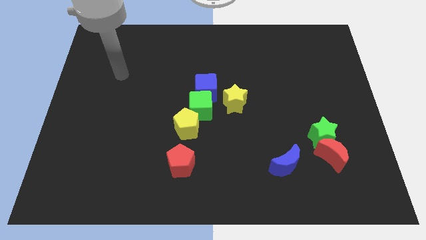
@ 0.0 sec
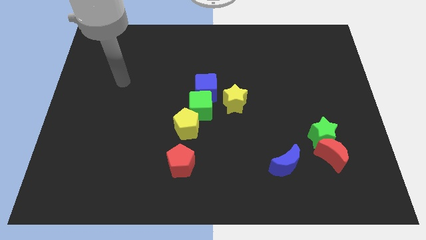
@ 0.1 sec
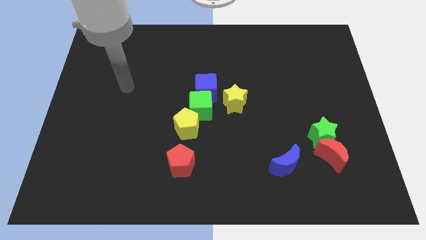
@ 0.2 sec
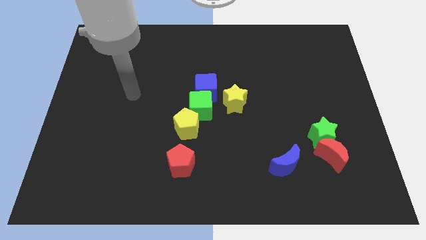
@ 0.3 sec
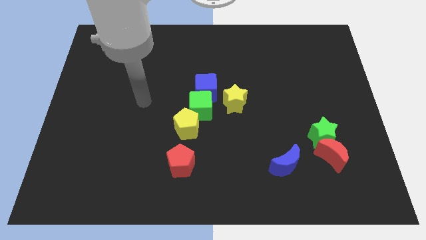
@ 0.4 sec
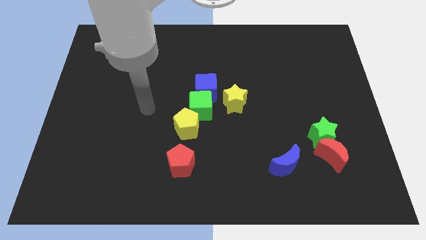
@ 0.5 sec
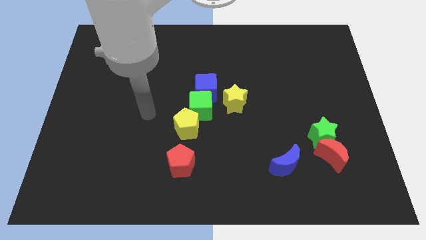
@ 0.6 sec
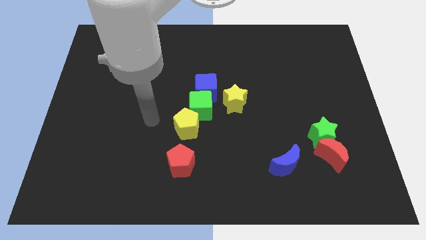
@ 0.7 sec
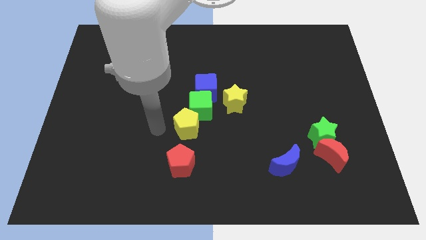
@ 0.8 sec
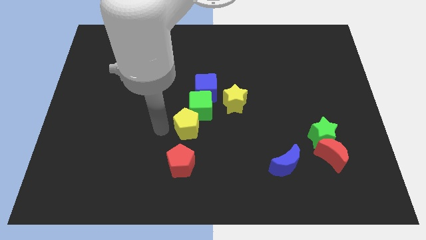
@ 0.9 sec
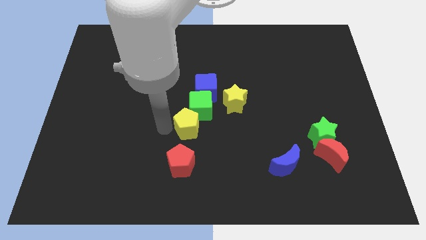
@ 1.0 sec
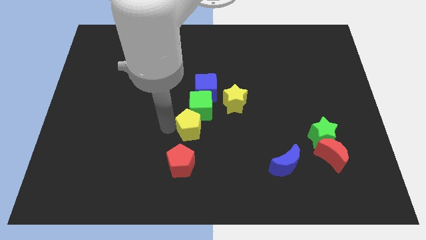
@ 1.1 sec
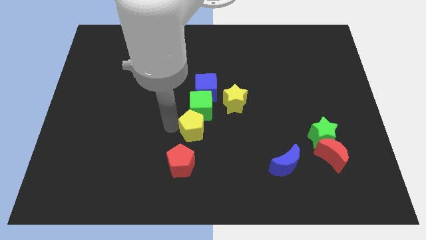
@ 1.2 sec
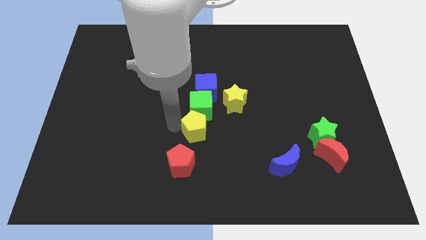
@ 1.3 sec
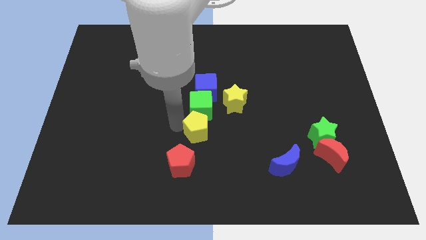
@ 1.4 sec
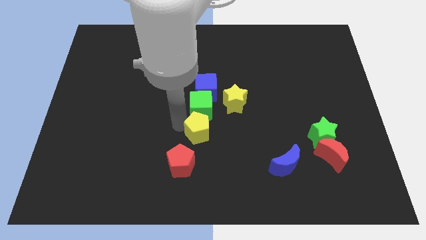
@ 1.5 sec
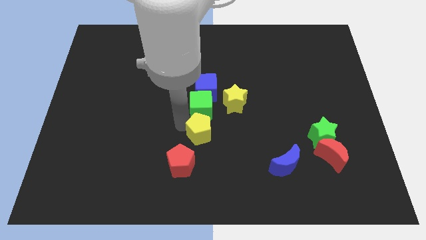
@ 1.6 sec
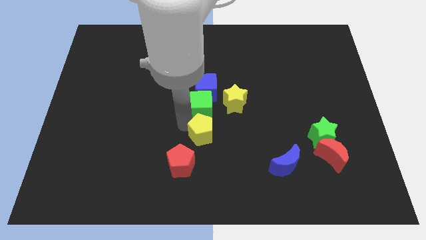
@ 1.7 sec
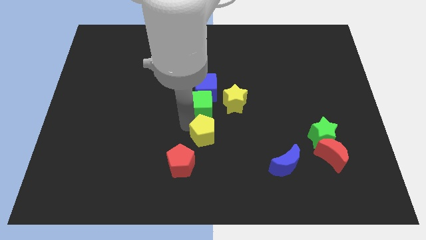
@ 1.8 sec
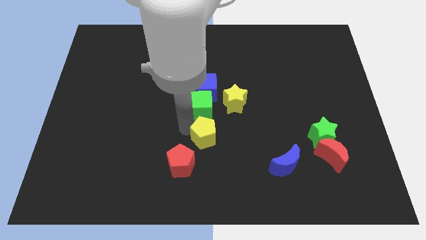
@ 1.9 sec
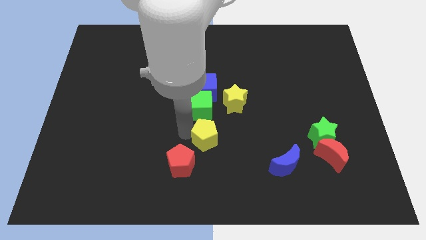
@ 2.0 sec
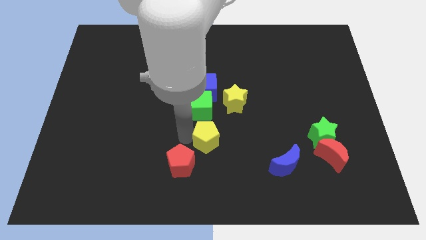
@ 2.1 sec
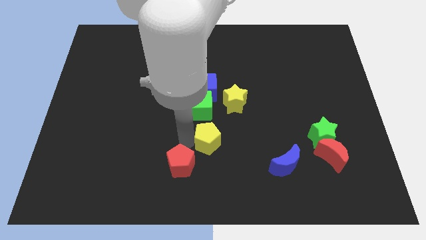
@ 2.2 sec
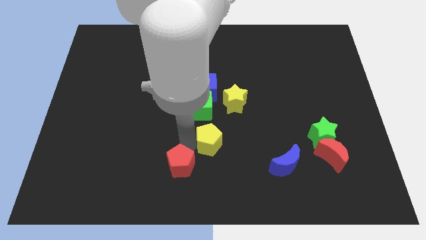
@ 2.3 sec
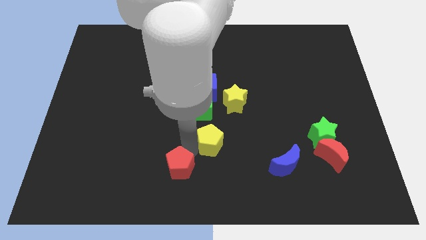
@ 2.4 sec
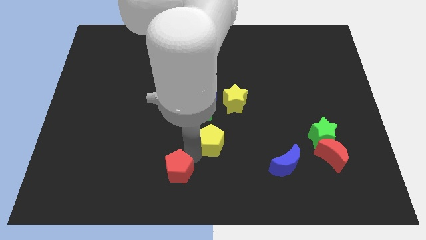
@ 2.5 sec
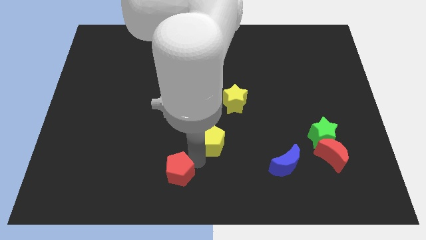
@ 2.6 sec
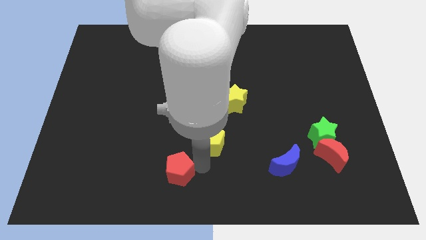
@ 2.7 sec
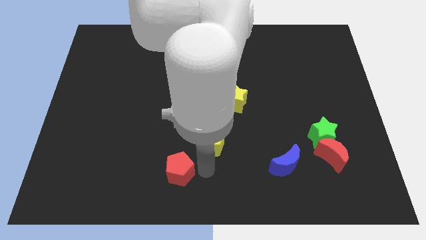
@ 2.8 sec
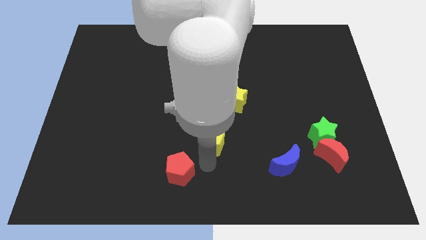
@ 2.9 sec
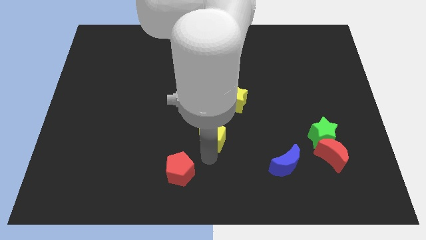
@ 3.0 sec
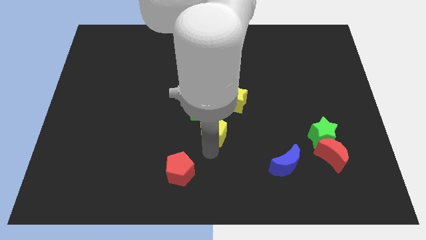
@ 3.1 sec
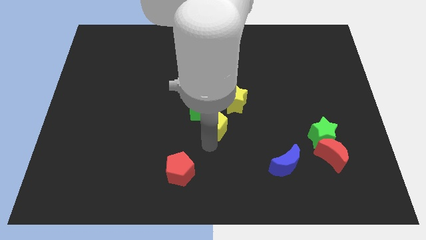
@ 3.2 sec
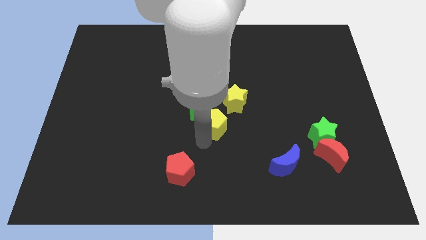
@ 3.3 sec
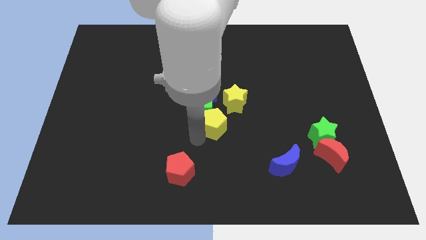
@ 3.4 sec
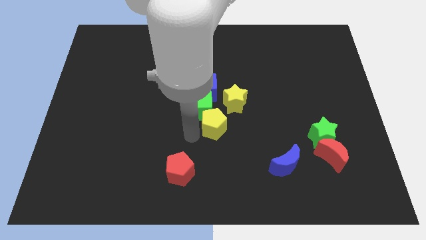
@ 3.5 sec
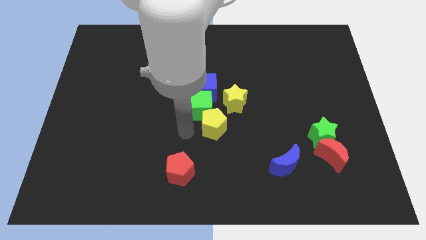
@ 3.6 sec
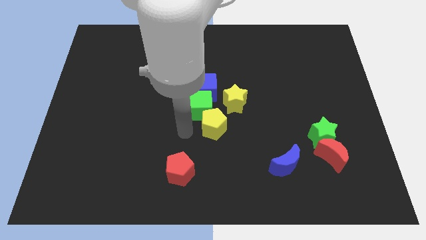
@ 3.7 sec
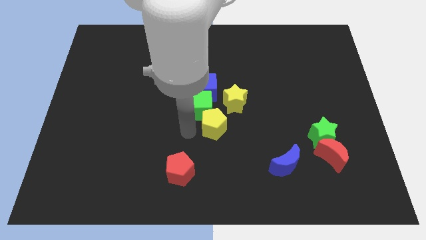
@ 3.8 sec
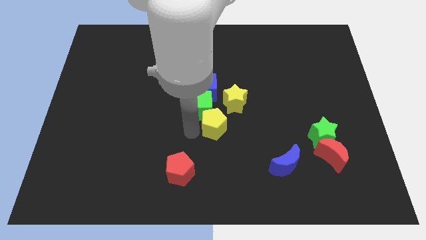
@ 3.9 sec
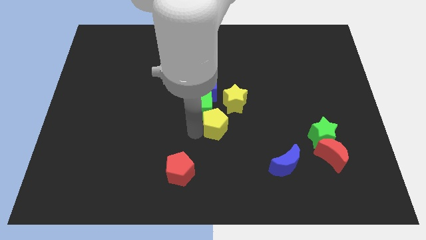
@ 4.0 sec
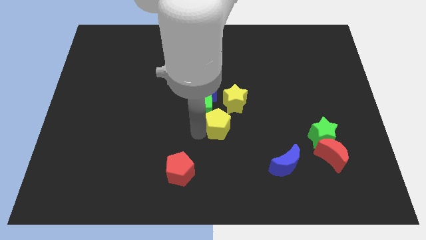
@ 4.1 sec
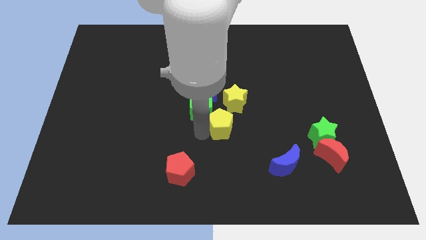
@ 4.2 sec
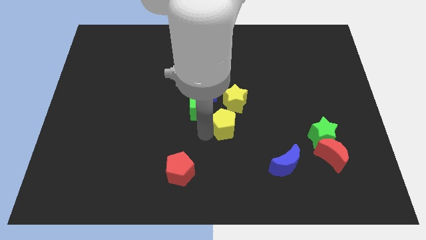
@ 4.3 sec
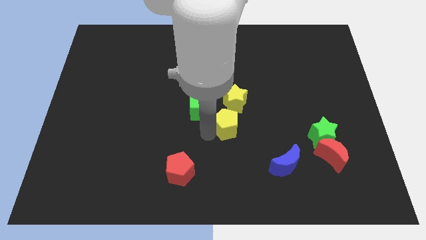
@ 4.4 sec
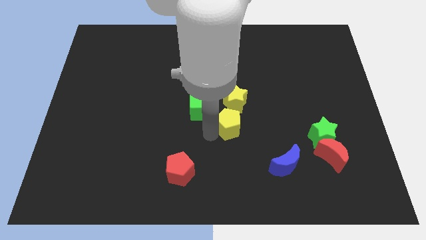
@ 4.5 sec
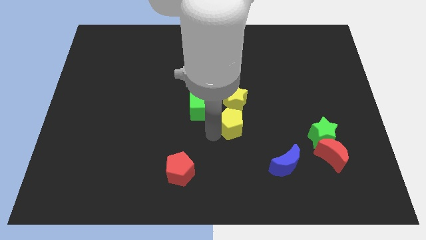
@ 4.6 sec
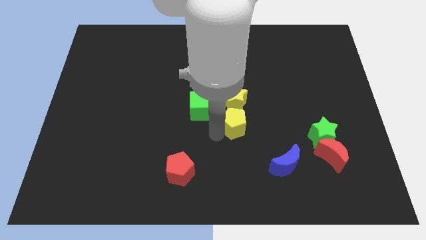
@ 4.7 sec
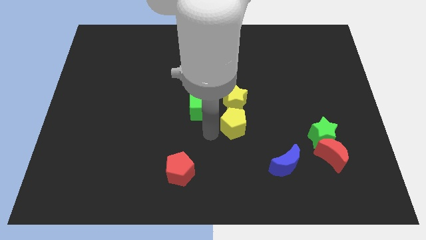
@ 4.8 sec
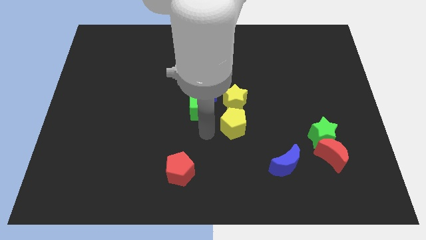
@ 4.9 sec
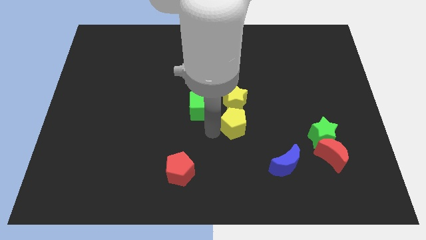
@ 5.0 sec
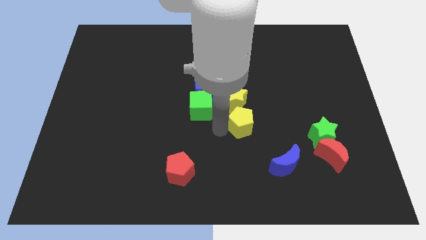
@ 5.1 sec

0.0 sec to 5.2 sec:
slide the yellow pentagon to the bottom right of the yellow star

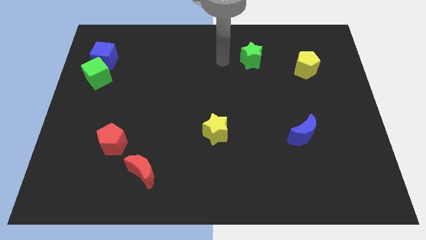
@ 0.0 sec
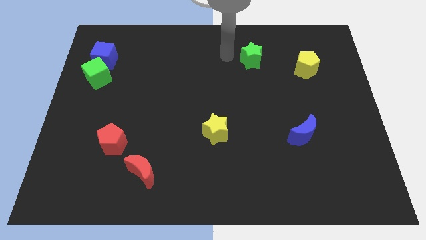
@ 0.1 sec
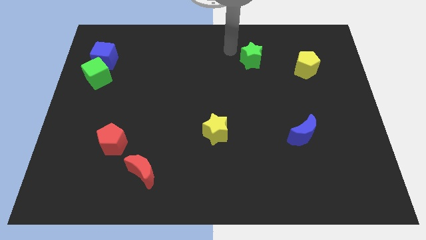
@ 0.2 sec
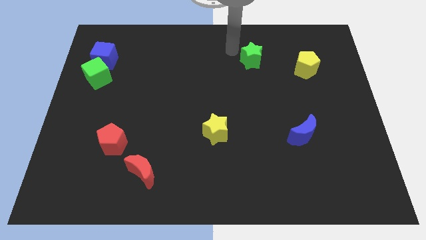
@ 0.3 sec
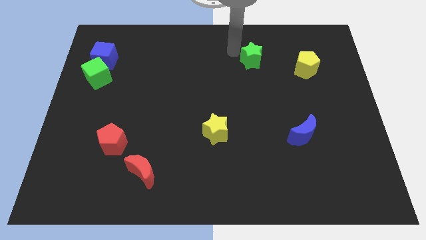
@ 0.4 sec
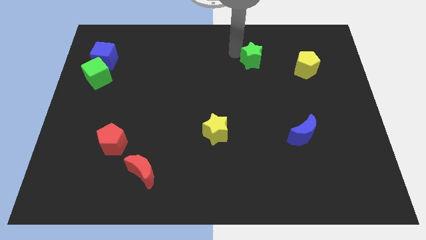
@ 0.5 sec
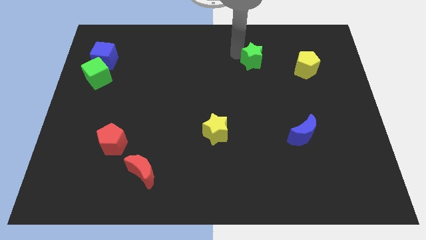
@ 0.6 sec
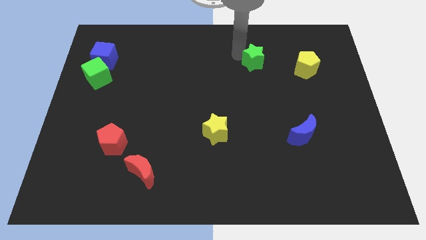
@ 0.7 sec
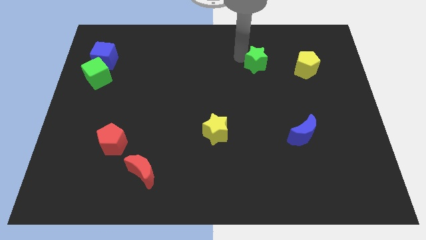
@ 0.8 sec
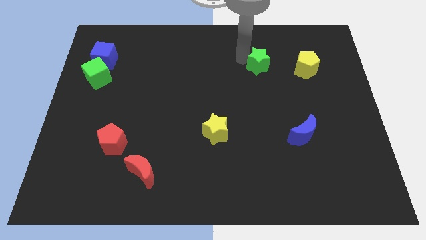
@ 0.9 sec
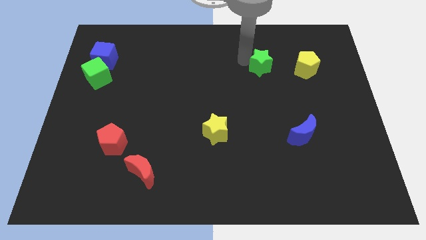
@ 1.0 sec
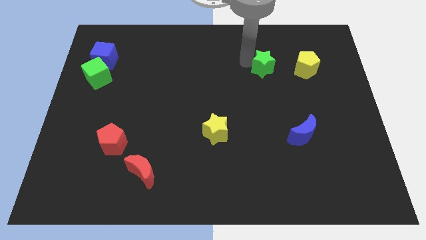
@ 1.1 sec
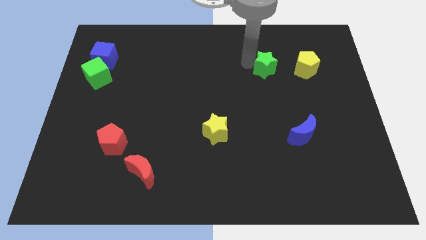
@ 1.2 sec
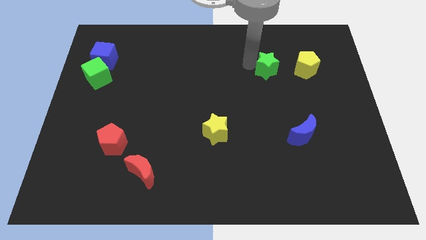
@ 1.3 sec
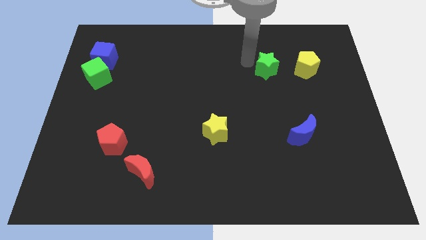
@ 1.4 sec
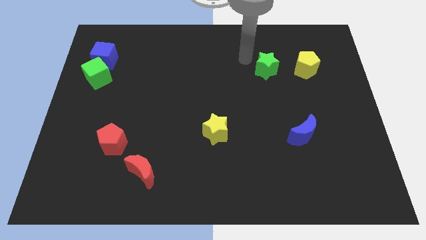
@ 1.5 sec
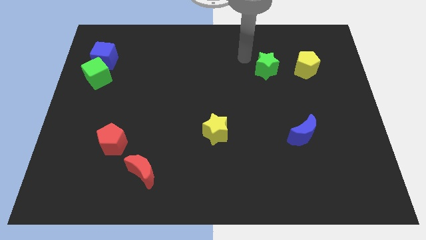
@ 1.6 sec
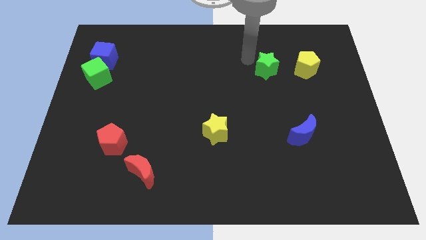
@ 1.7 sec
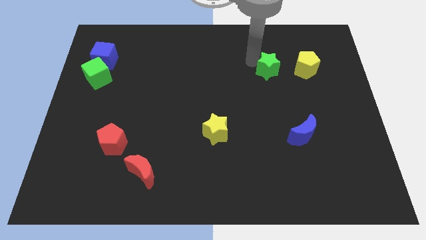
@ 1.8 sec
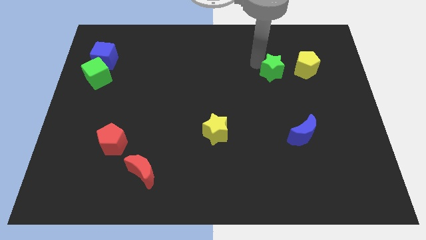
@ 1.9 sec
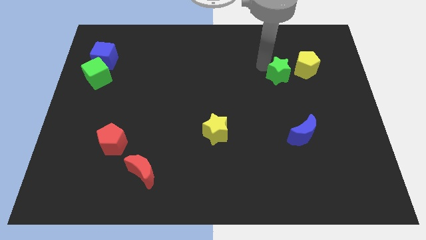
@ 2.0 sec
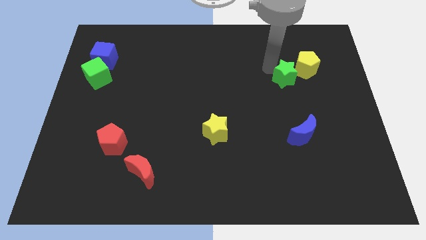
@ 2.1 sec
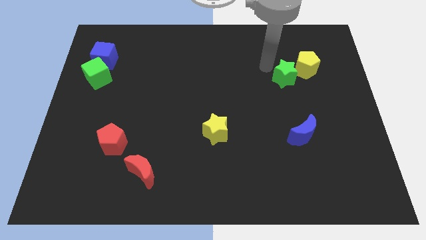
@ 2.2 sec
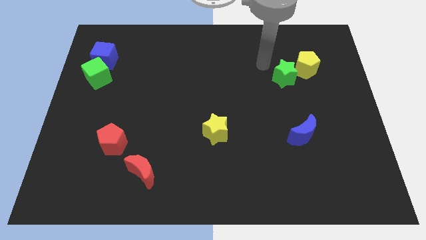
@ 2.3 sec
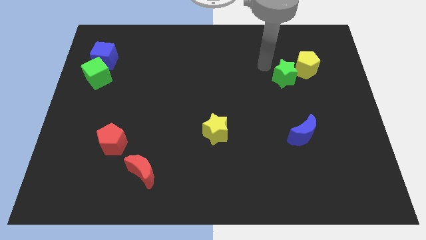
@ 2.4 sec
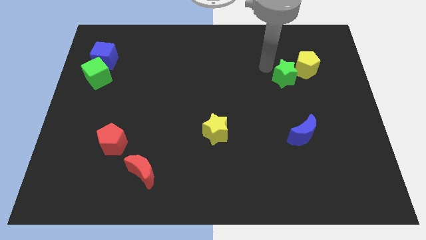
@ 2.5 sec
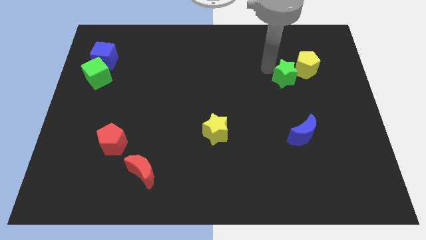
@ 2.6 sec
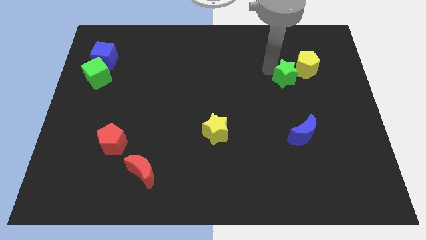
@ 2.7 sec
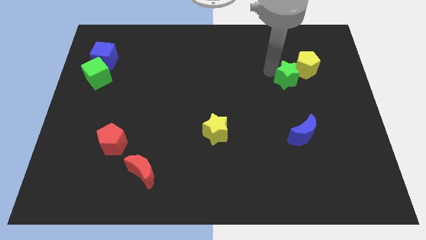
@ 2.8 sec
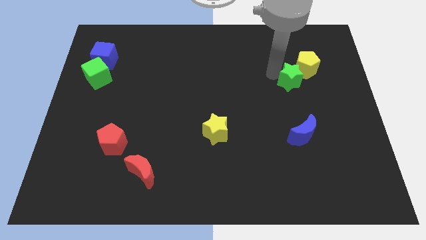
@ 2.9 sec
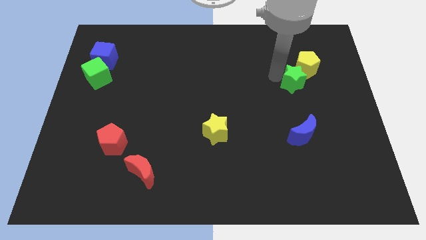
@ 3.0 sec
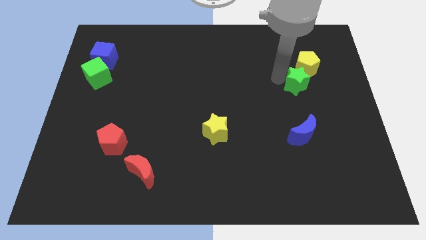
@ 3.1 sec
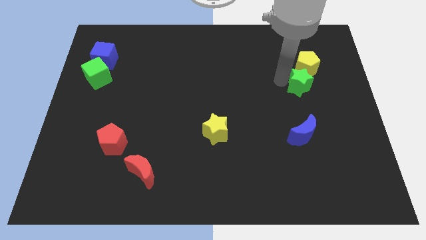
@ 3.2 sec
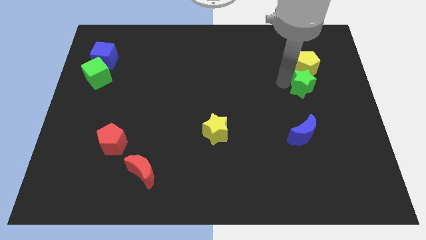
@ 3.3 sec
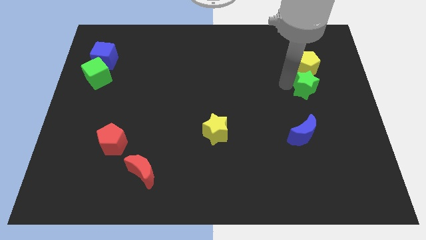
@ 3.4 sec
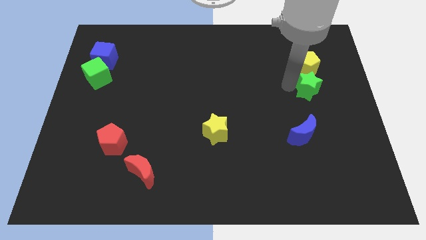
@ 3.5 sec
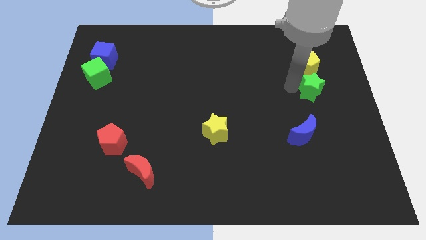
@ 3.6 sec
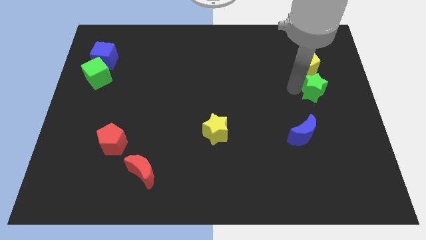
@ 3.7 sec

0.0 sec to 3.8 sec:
slide the green star diagonally down and to the right of the yellow pentagon
